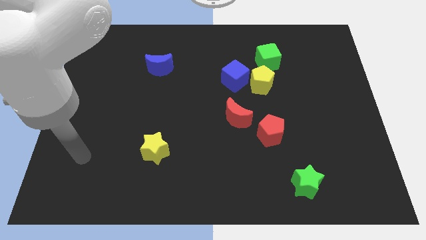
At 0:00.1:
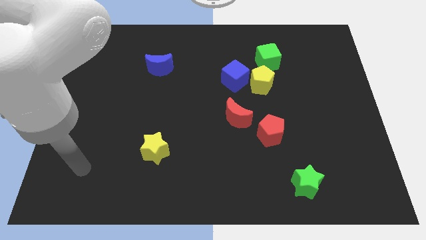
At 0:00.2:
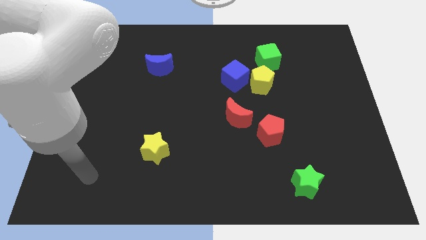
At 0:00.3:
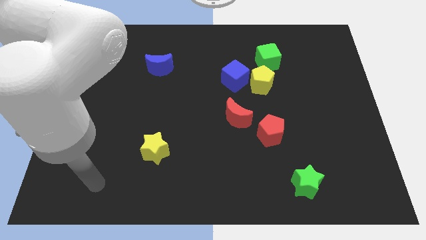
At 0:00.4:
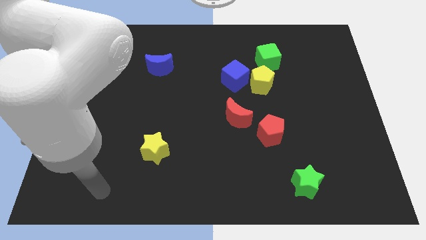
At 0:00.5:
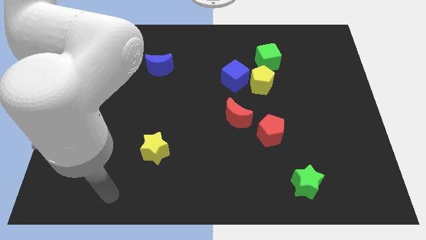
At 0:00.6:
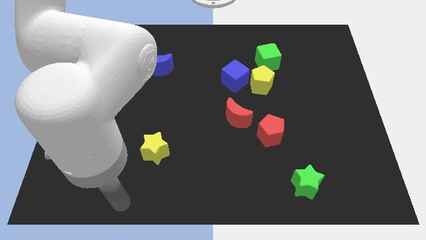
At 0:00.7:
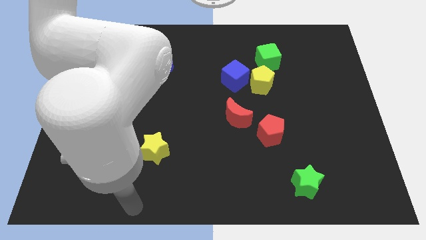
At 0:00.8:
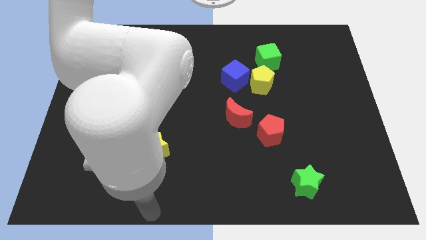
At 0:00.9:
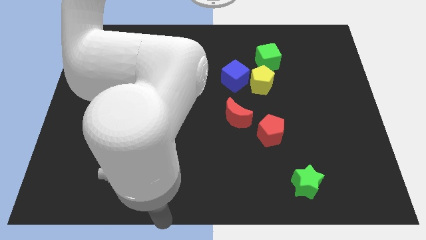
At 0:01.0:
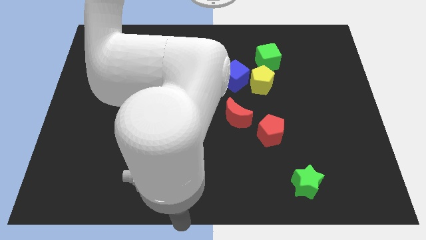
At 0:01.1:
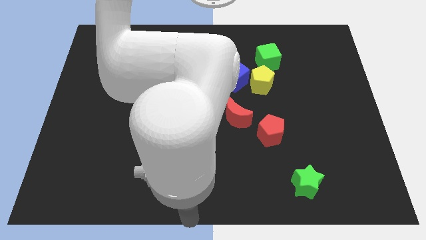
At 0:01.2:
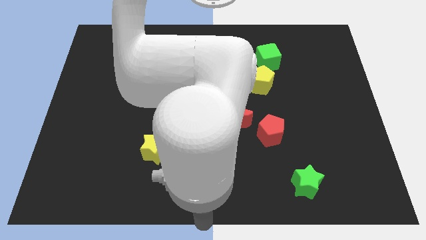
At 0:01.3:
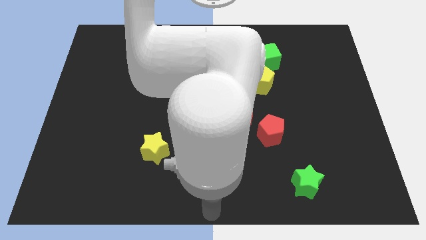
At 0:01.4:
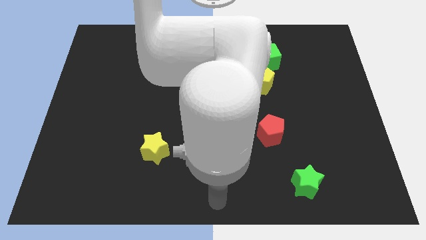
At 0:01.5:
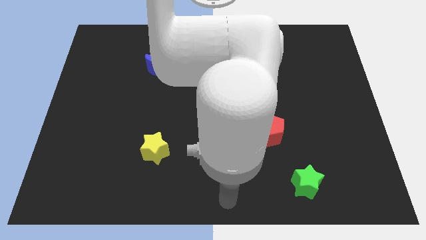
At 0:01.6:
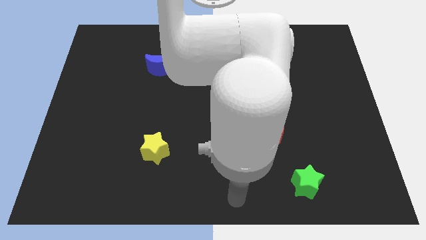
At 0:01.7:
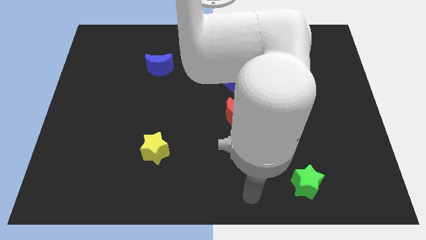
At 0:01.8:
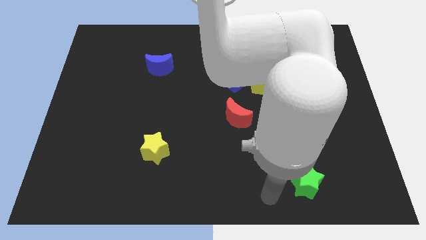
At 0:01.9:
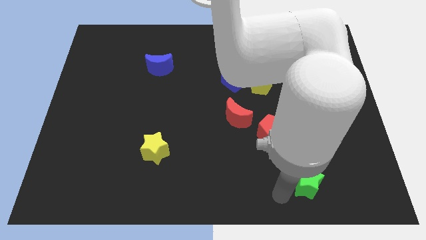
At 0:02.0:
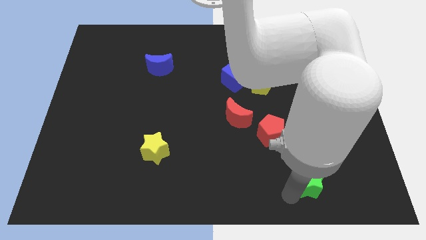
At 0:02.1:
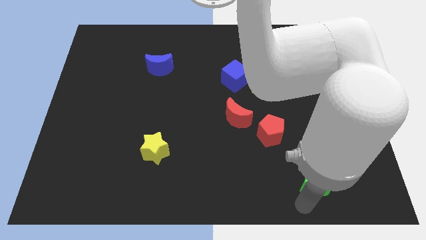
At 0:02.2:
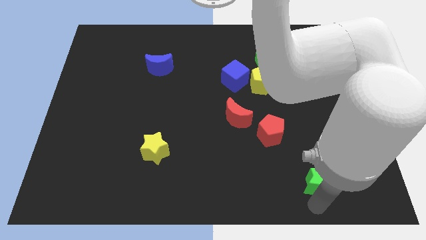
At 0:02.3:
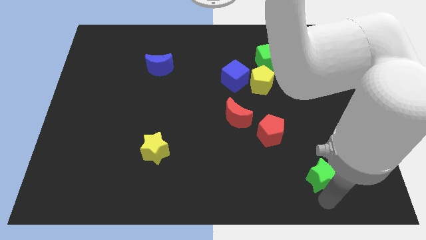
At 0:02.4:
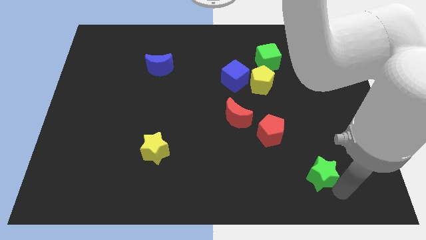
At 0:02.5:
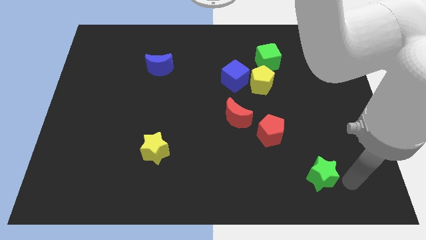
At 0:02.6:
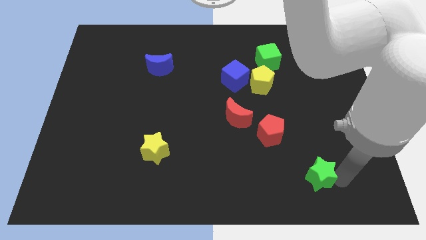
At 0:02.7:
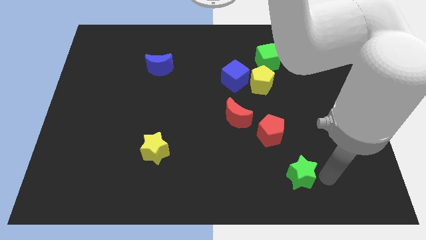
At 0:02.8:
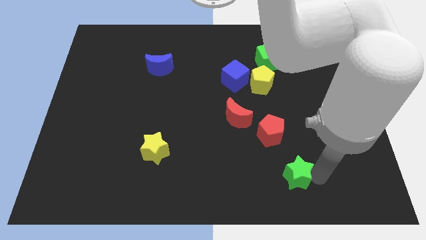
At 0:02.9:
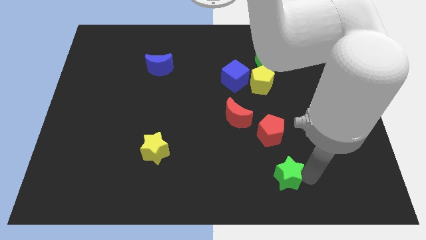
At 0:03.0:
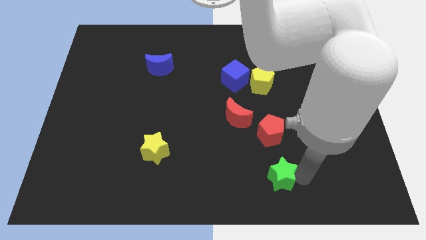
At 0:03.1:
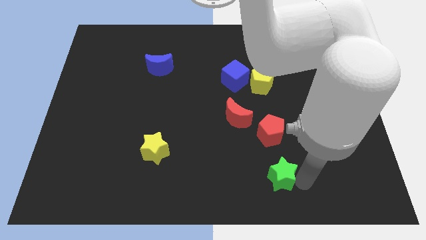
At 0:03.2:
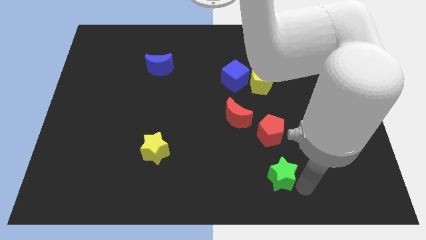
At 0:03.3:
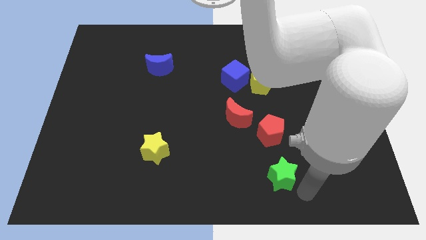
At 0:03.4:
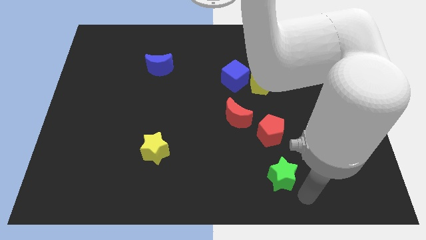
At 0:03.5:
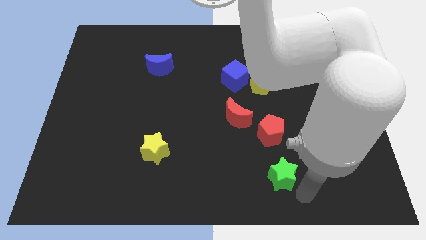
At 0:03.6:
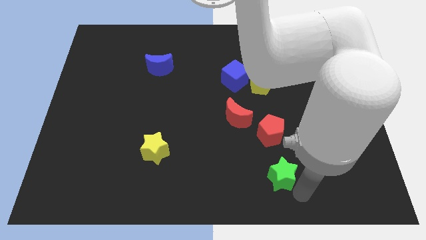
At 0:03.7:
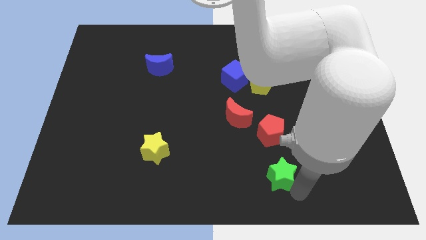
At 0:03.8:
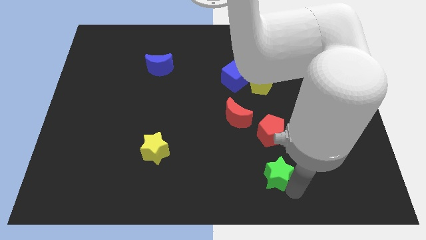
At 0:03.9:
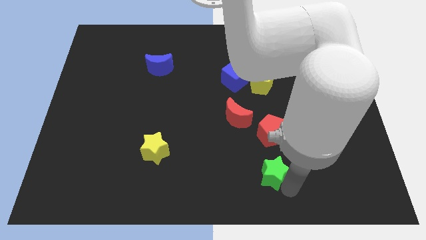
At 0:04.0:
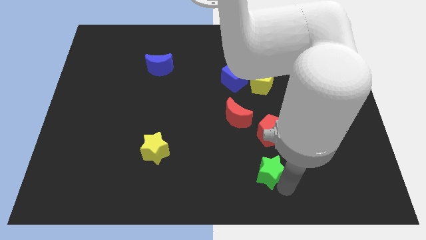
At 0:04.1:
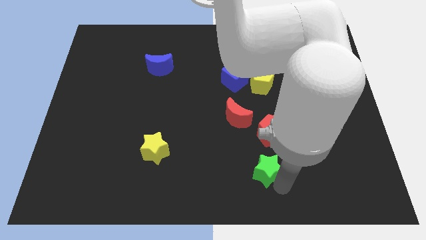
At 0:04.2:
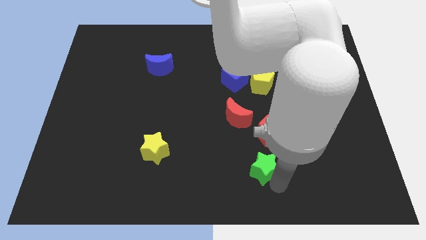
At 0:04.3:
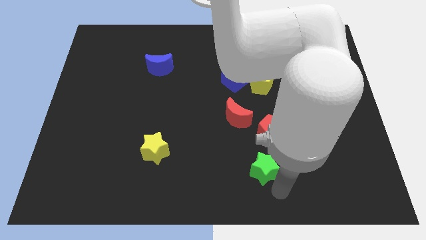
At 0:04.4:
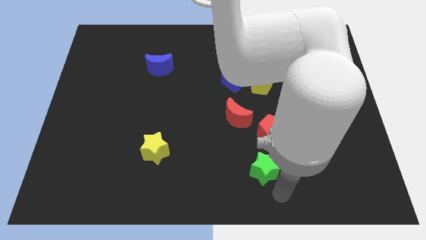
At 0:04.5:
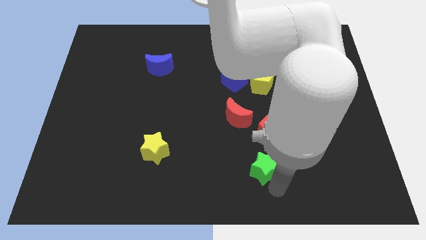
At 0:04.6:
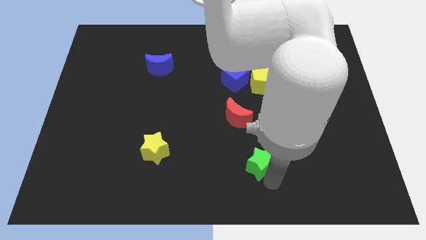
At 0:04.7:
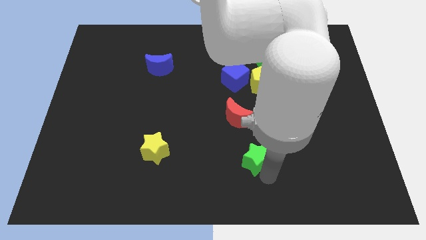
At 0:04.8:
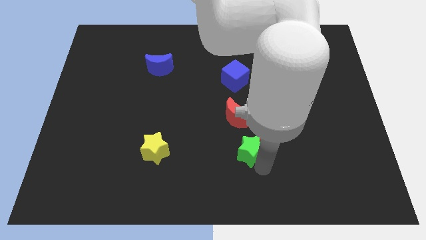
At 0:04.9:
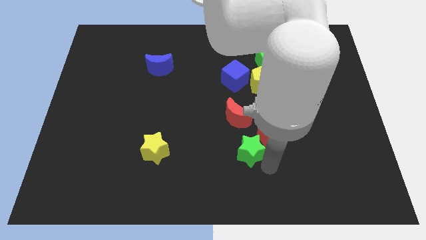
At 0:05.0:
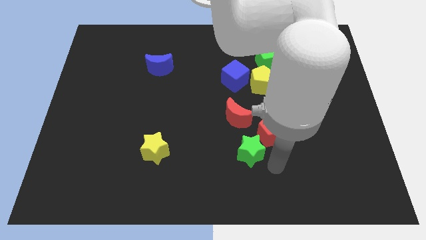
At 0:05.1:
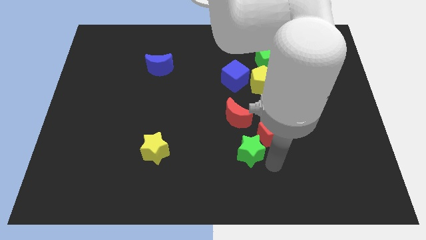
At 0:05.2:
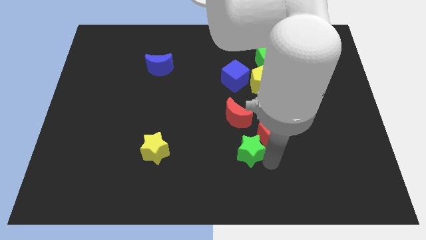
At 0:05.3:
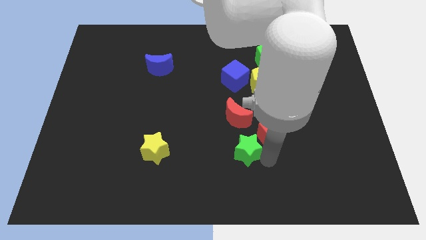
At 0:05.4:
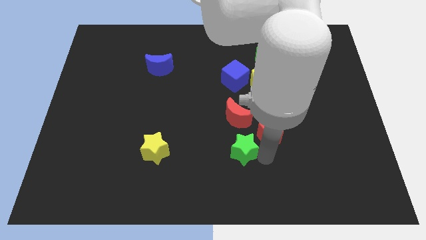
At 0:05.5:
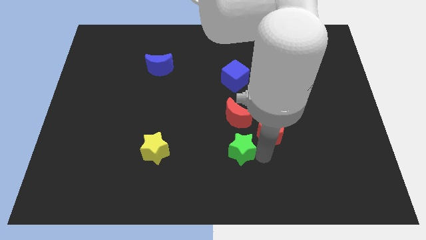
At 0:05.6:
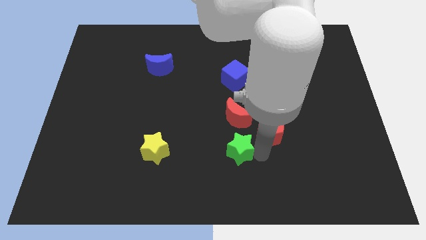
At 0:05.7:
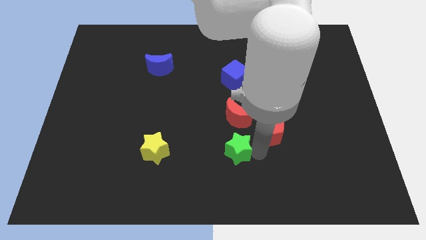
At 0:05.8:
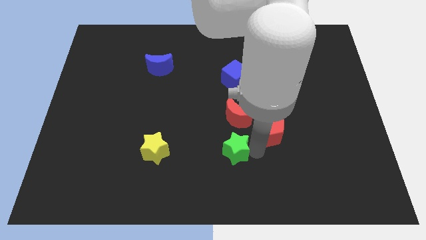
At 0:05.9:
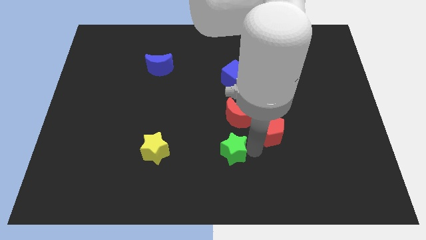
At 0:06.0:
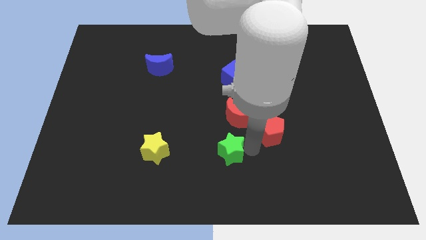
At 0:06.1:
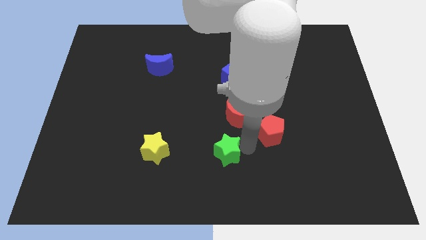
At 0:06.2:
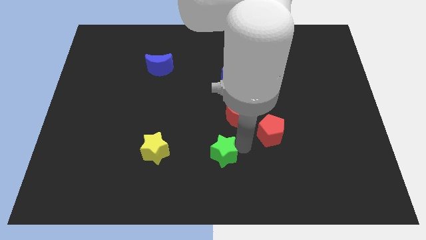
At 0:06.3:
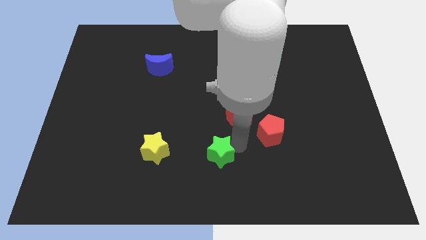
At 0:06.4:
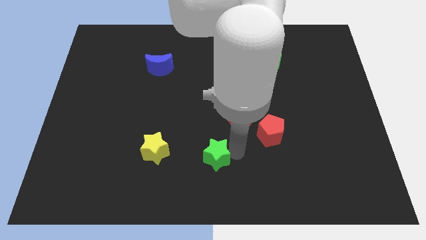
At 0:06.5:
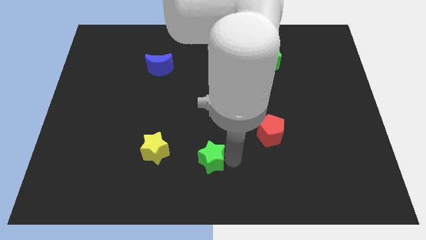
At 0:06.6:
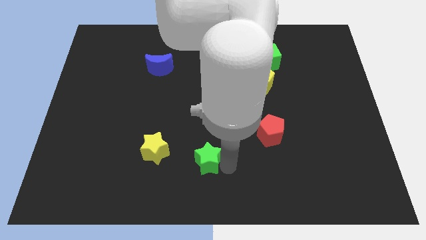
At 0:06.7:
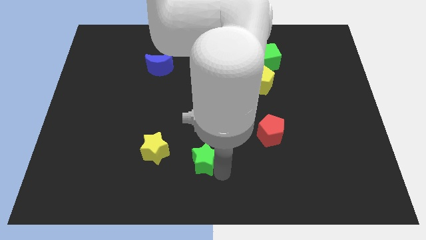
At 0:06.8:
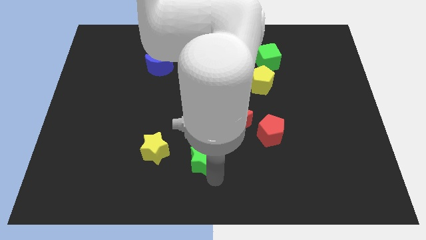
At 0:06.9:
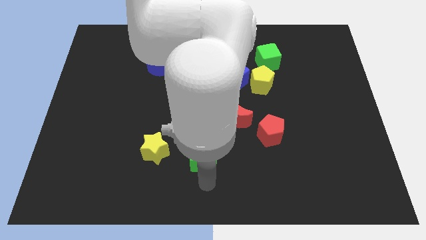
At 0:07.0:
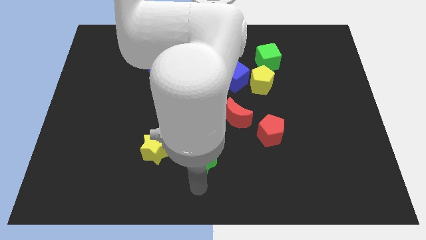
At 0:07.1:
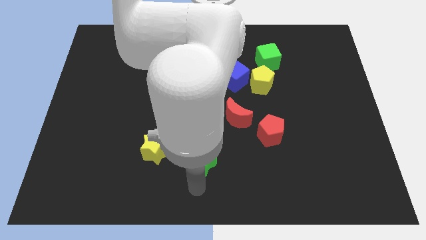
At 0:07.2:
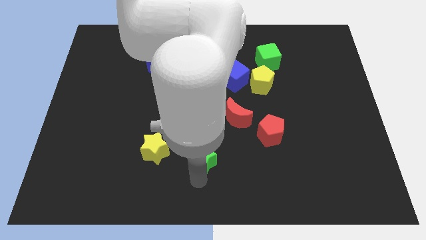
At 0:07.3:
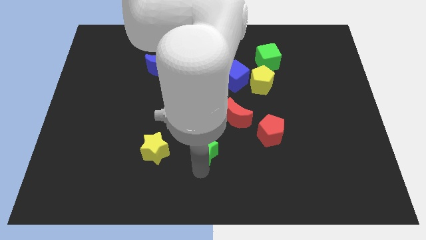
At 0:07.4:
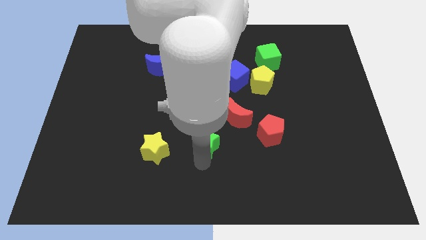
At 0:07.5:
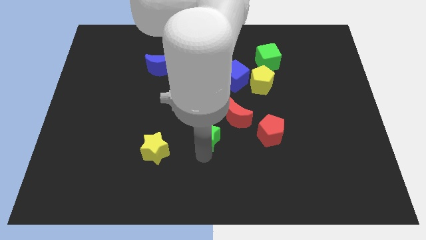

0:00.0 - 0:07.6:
move the green star upwards and then left

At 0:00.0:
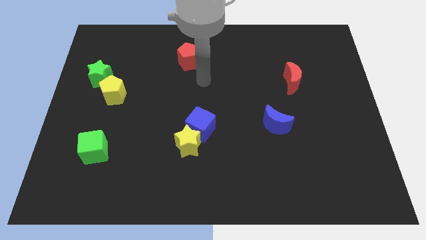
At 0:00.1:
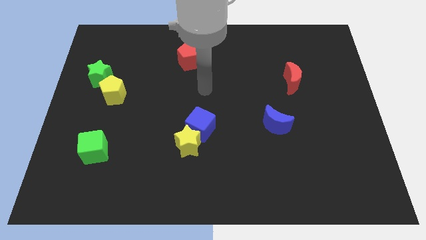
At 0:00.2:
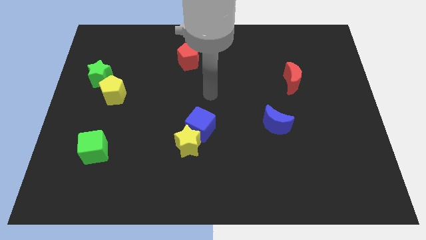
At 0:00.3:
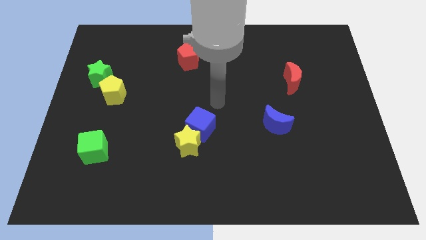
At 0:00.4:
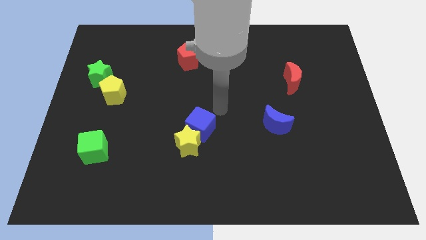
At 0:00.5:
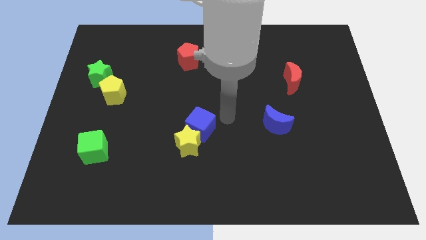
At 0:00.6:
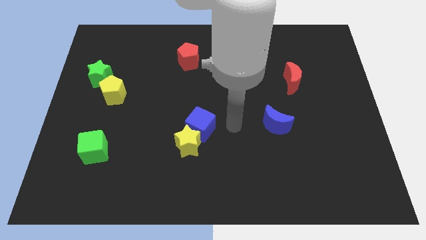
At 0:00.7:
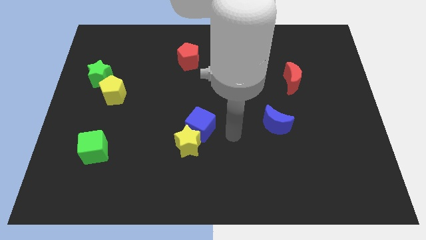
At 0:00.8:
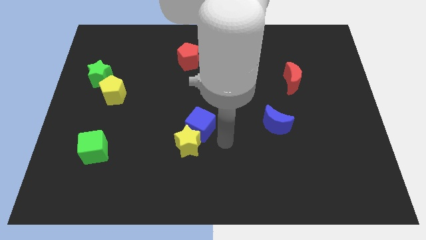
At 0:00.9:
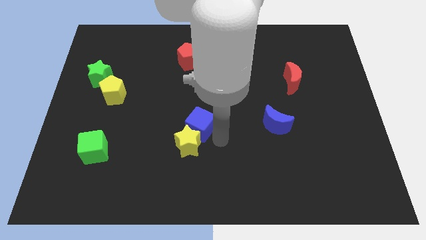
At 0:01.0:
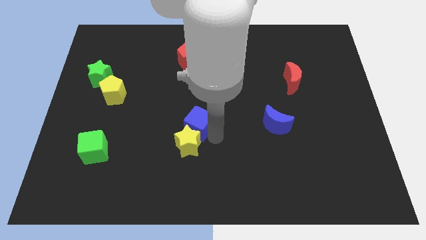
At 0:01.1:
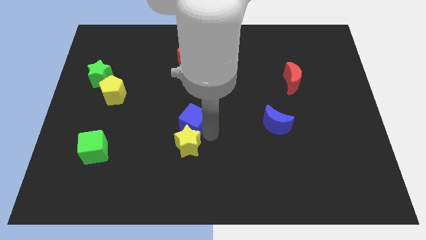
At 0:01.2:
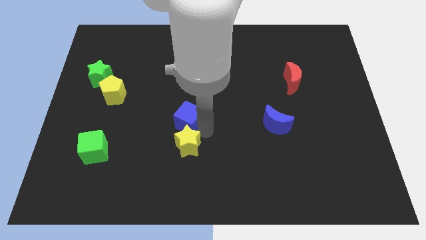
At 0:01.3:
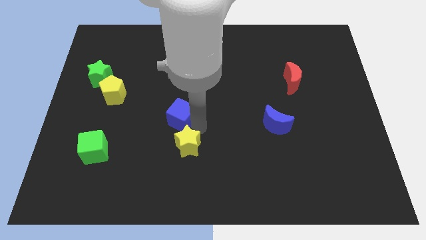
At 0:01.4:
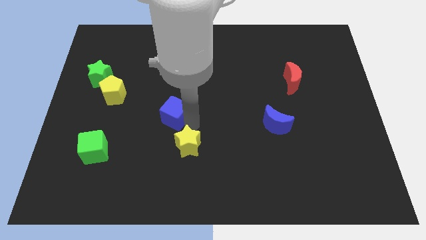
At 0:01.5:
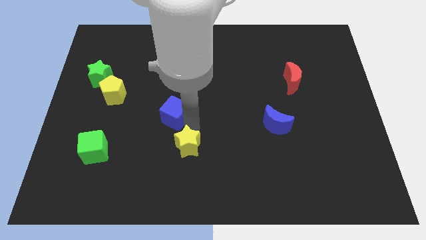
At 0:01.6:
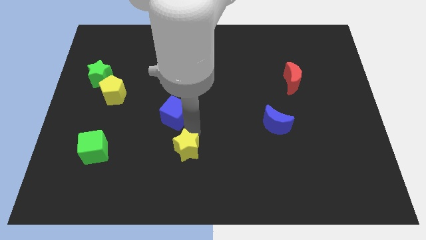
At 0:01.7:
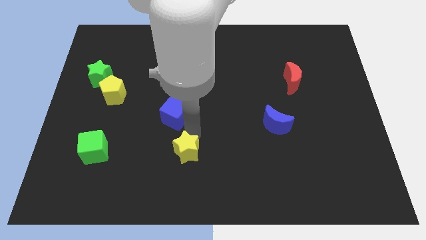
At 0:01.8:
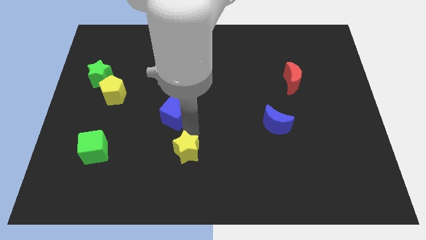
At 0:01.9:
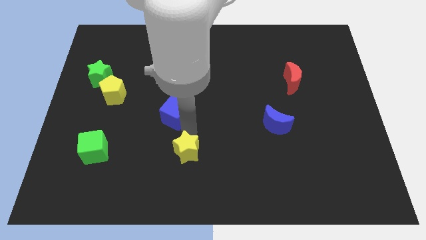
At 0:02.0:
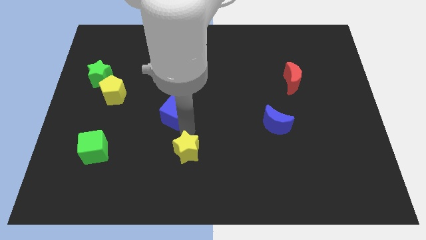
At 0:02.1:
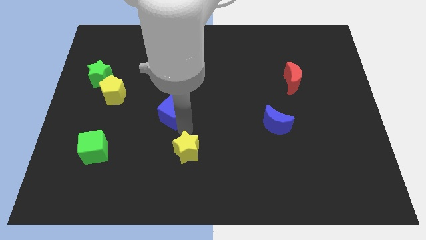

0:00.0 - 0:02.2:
slide the blue cube a little upwards and then to the left
